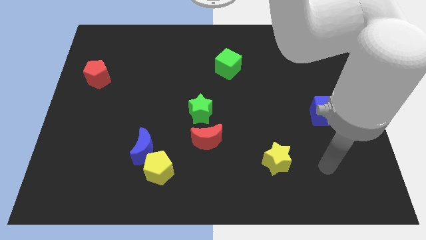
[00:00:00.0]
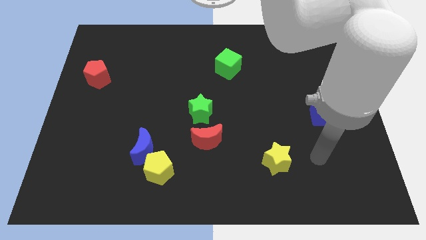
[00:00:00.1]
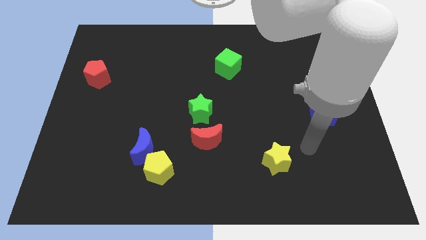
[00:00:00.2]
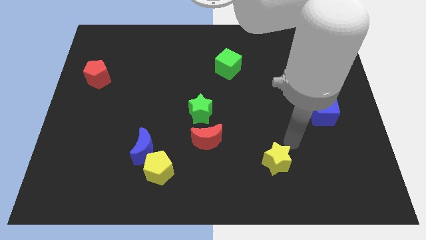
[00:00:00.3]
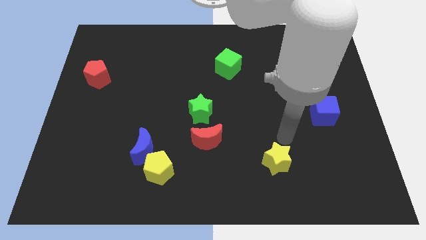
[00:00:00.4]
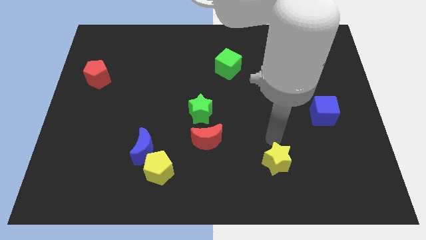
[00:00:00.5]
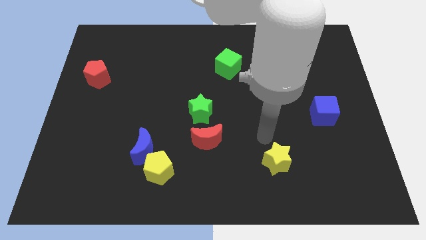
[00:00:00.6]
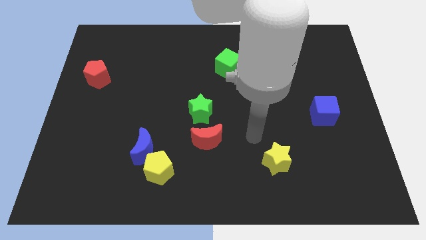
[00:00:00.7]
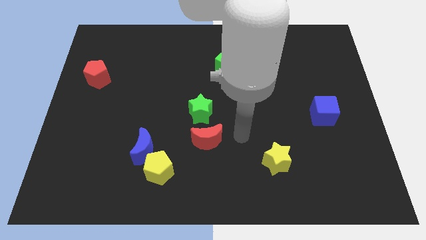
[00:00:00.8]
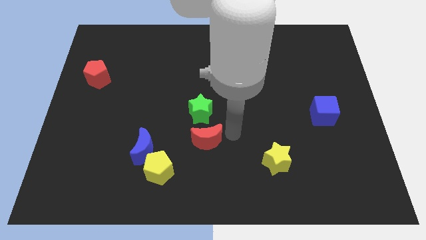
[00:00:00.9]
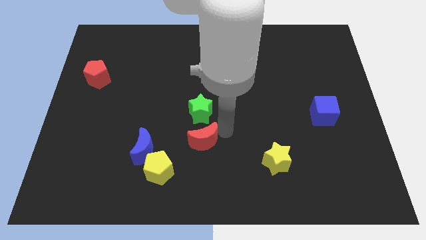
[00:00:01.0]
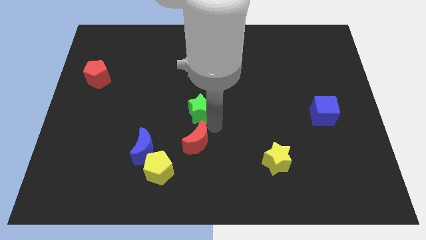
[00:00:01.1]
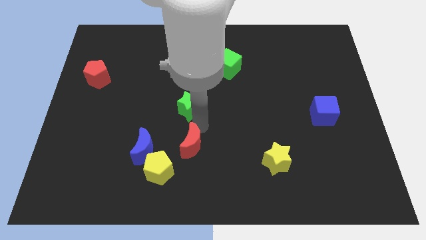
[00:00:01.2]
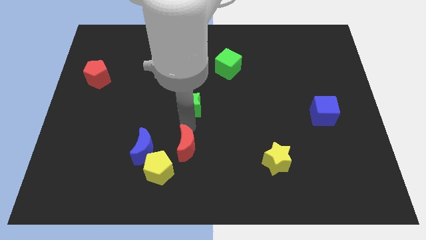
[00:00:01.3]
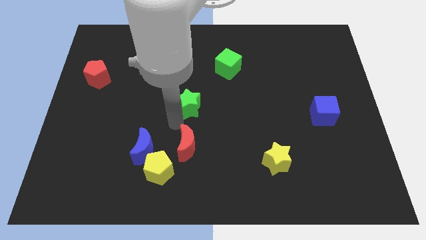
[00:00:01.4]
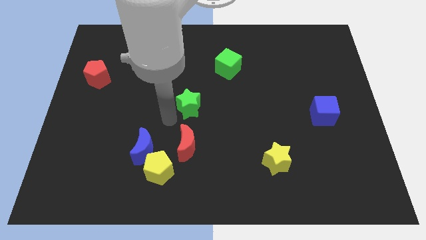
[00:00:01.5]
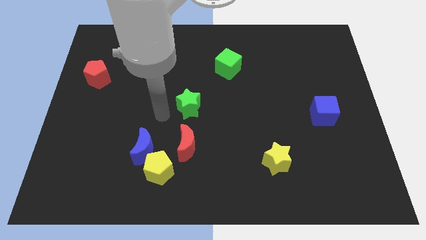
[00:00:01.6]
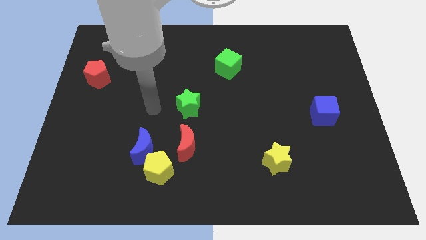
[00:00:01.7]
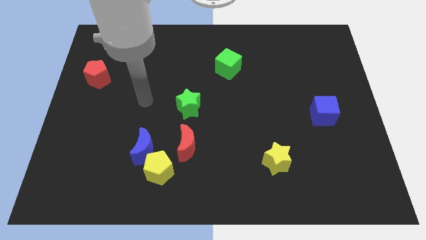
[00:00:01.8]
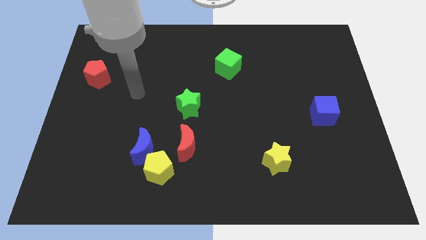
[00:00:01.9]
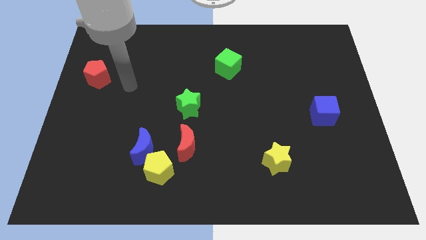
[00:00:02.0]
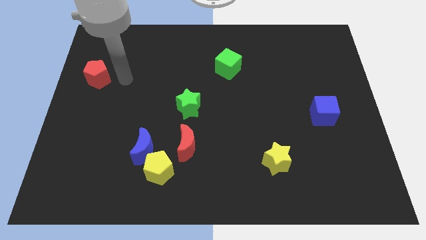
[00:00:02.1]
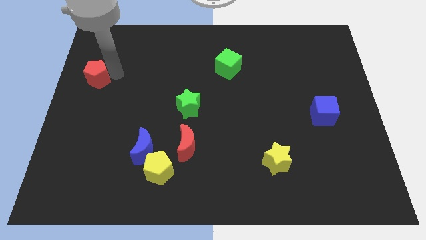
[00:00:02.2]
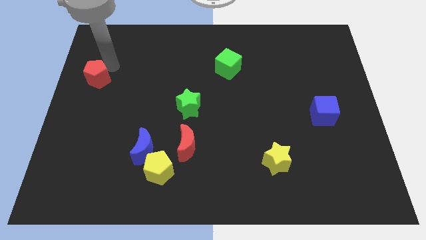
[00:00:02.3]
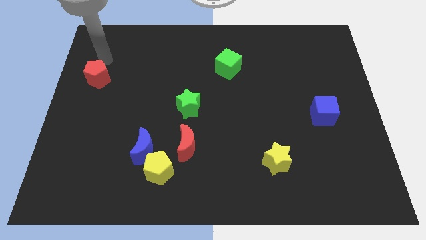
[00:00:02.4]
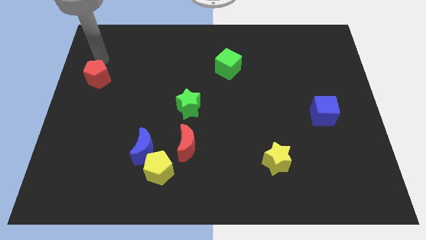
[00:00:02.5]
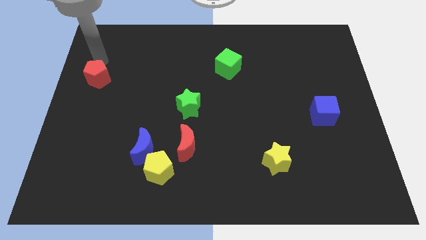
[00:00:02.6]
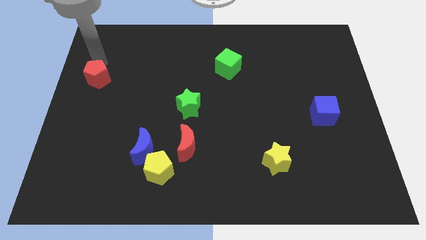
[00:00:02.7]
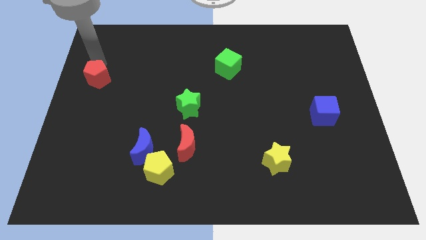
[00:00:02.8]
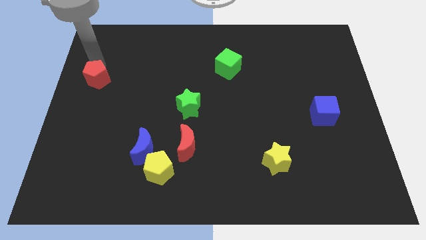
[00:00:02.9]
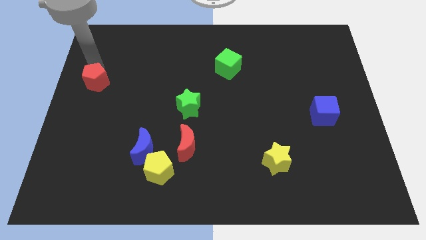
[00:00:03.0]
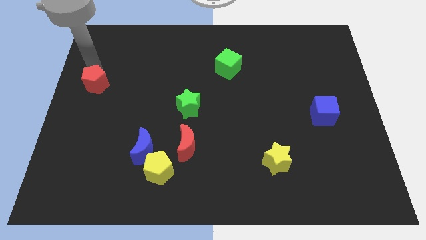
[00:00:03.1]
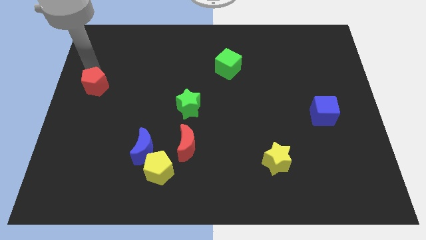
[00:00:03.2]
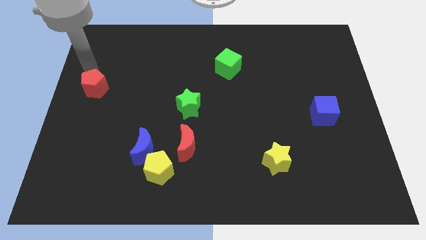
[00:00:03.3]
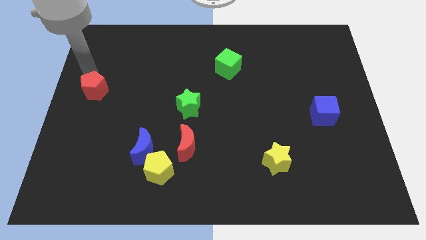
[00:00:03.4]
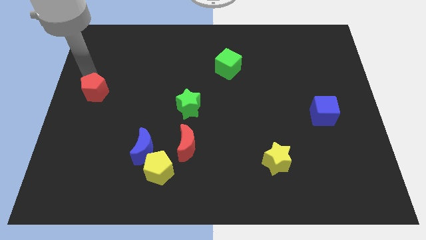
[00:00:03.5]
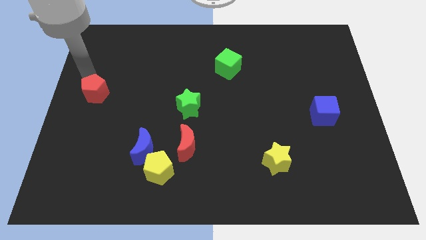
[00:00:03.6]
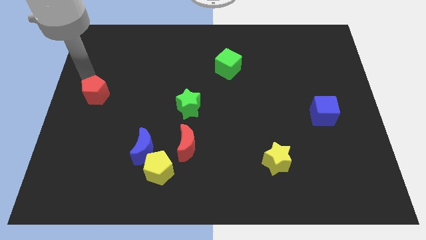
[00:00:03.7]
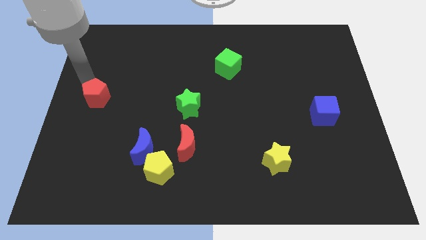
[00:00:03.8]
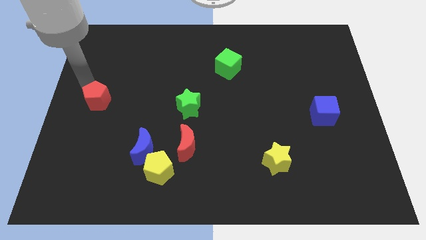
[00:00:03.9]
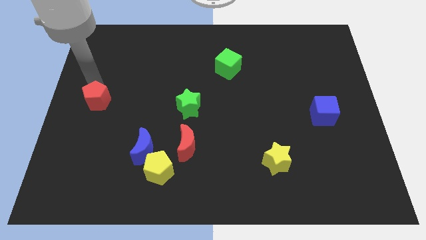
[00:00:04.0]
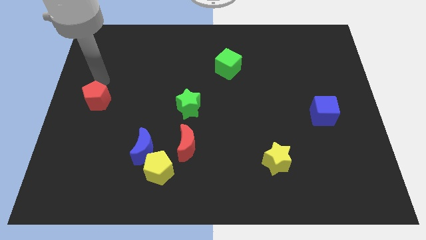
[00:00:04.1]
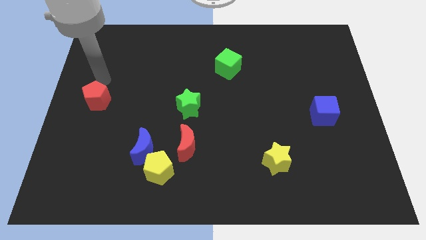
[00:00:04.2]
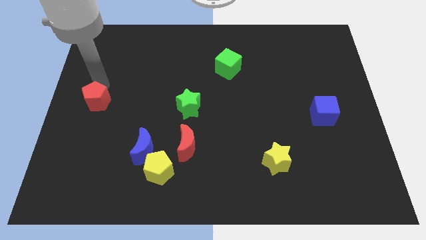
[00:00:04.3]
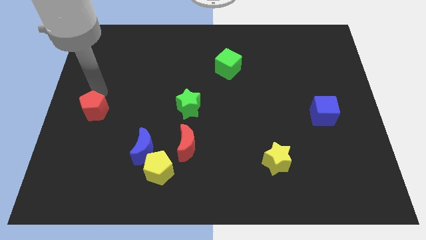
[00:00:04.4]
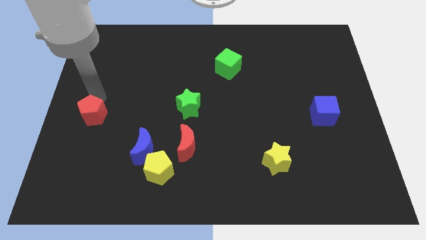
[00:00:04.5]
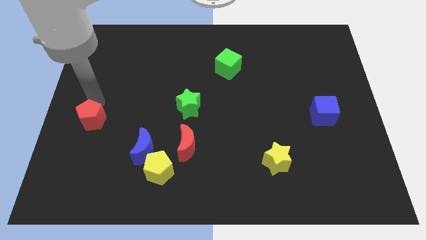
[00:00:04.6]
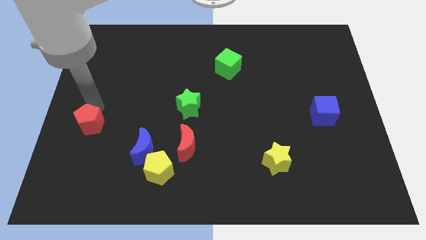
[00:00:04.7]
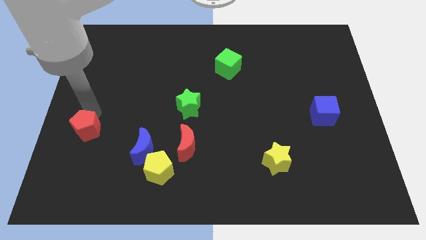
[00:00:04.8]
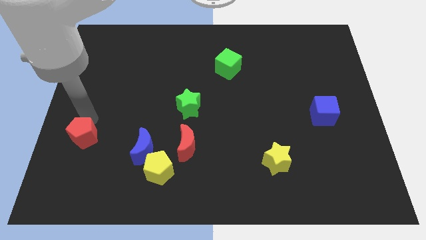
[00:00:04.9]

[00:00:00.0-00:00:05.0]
put the red pentagon to the left side of the blue moon

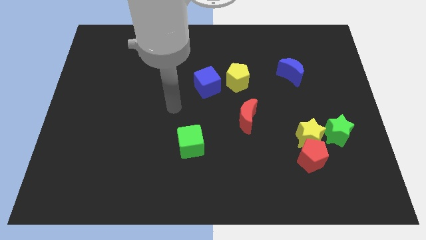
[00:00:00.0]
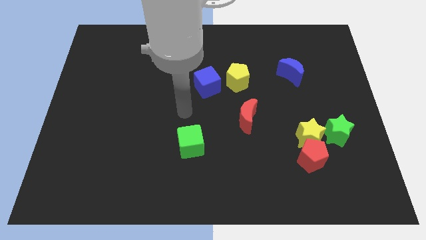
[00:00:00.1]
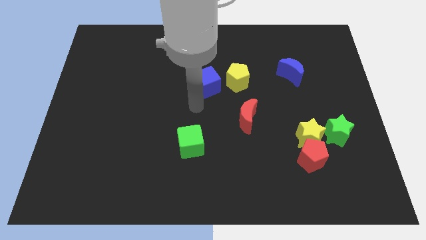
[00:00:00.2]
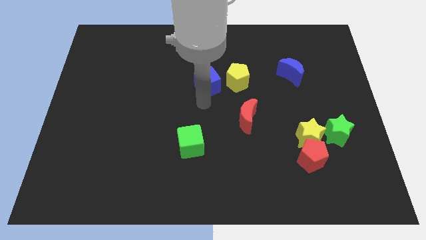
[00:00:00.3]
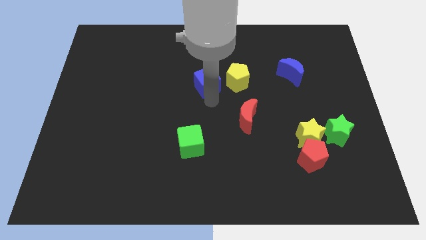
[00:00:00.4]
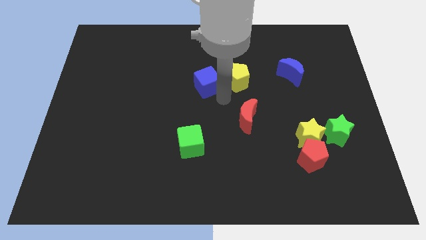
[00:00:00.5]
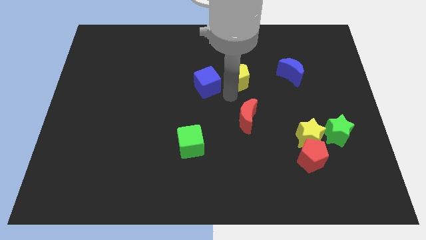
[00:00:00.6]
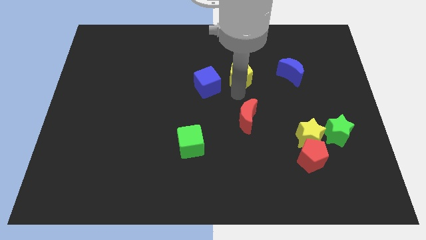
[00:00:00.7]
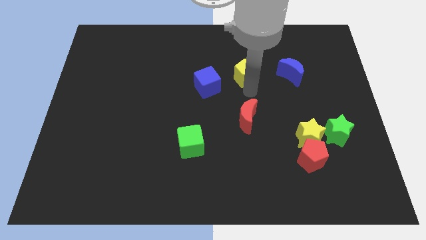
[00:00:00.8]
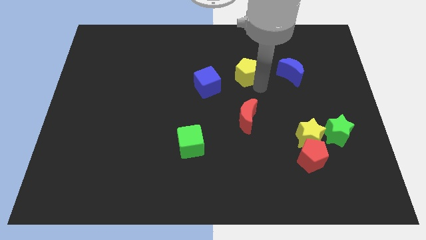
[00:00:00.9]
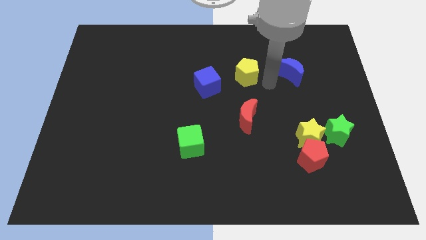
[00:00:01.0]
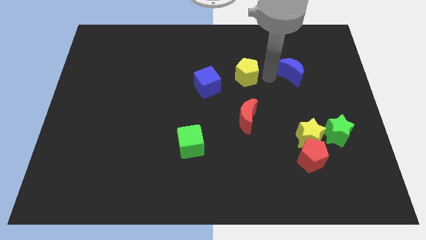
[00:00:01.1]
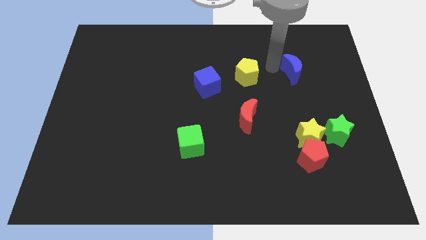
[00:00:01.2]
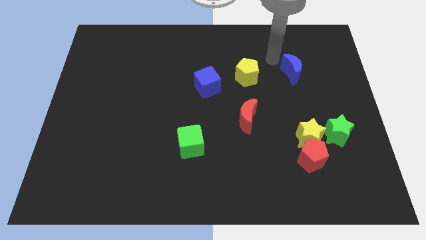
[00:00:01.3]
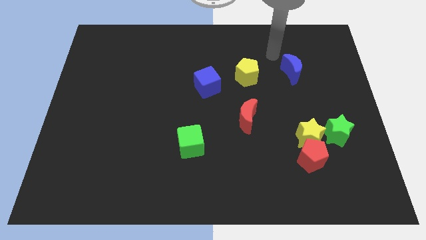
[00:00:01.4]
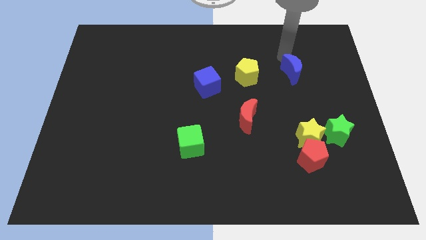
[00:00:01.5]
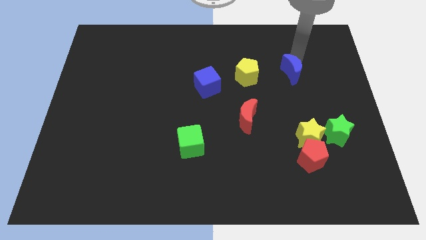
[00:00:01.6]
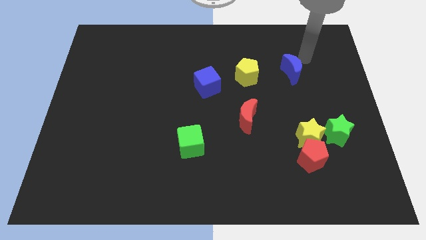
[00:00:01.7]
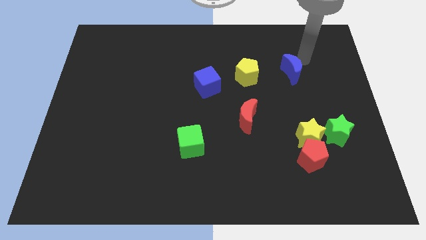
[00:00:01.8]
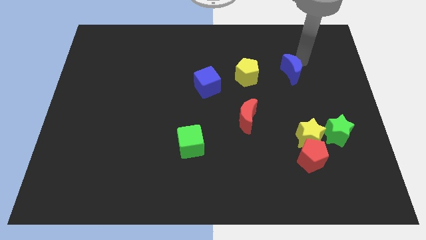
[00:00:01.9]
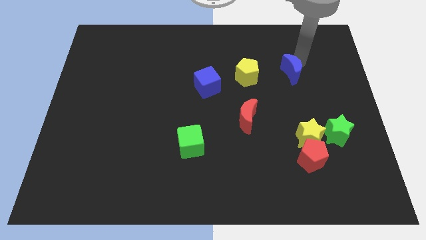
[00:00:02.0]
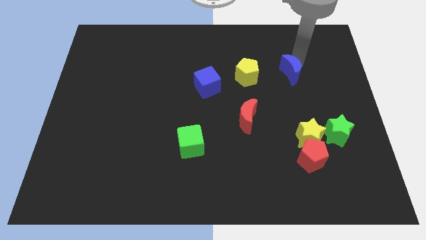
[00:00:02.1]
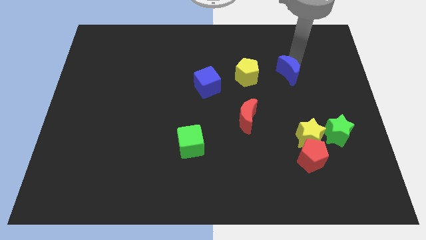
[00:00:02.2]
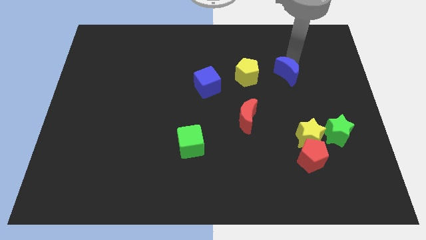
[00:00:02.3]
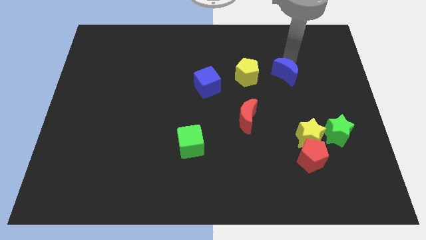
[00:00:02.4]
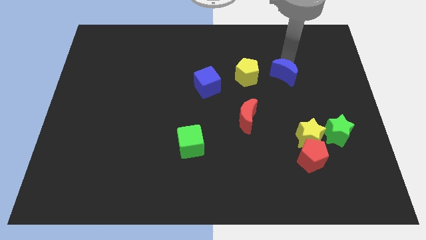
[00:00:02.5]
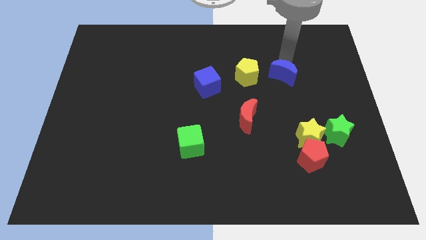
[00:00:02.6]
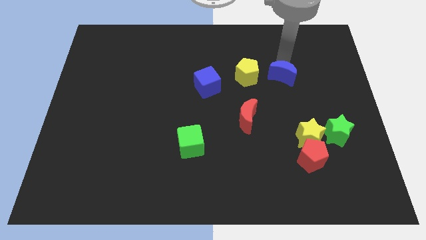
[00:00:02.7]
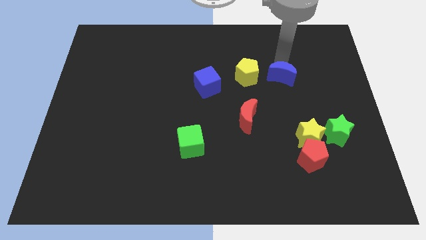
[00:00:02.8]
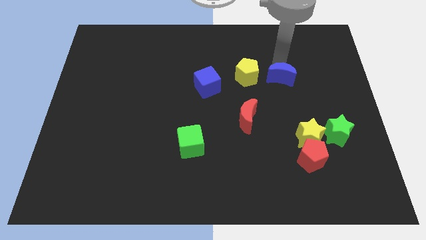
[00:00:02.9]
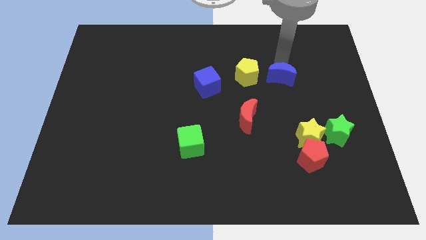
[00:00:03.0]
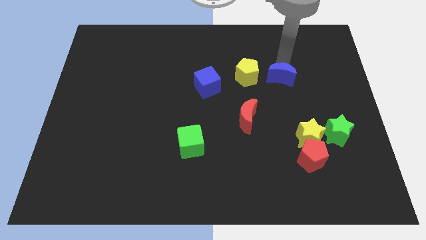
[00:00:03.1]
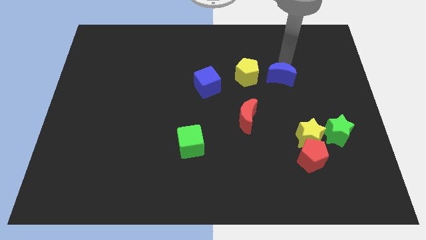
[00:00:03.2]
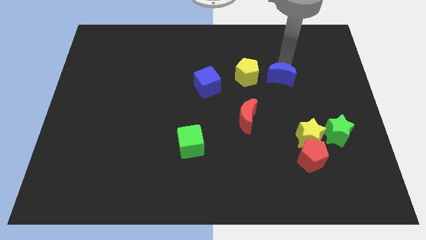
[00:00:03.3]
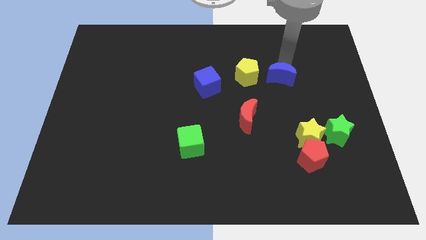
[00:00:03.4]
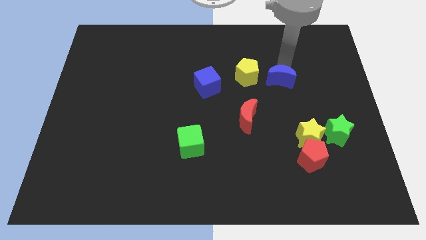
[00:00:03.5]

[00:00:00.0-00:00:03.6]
move the blue moon diagonally down and to the right of the yellow pentagon
